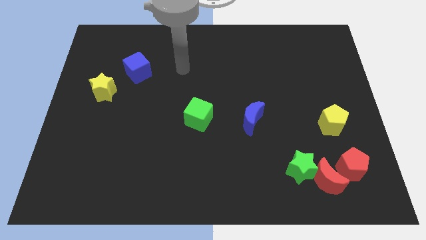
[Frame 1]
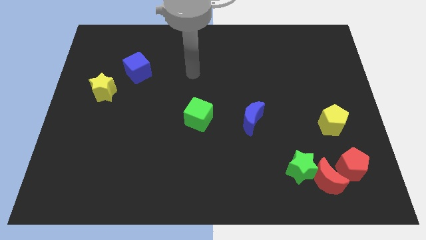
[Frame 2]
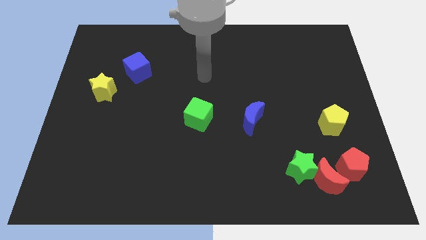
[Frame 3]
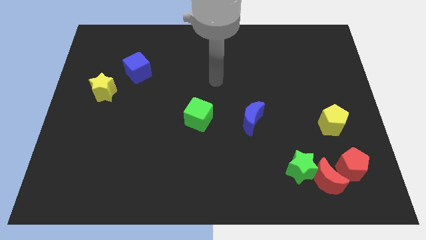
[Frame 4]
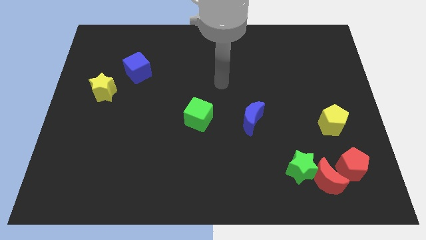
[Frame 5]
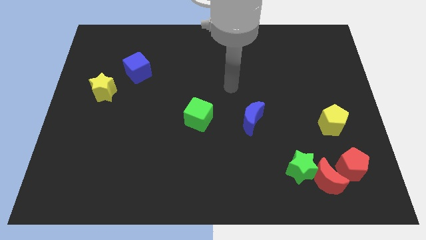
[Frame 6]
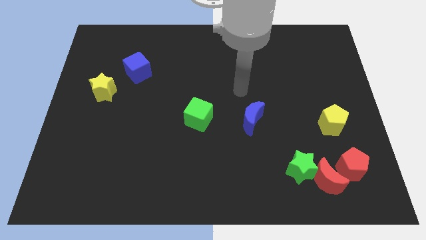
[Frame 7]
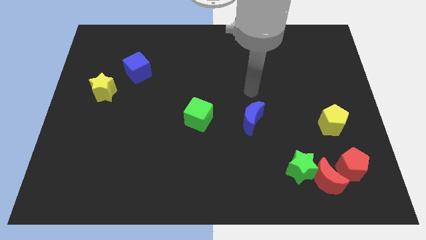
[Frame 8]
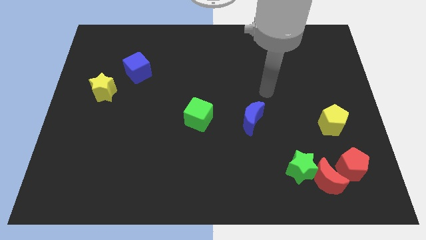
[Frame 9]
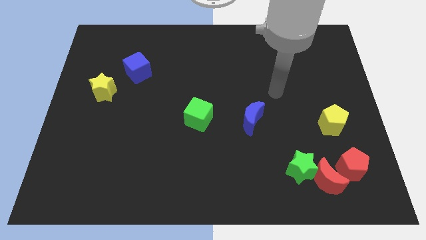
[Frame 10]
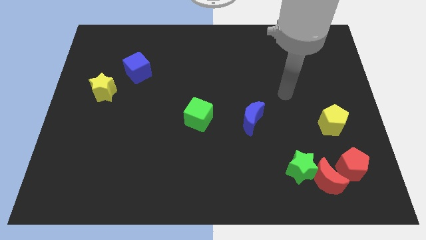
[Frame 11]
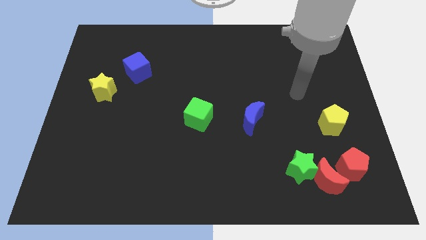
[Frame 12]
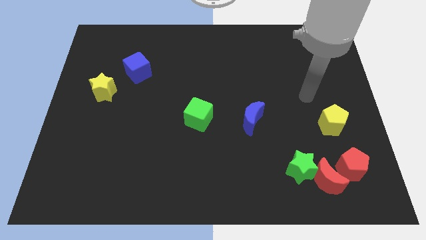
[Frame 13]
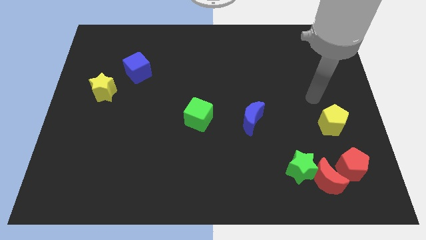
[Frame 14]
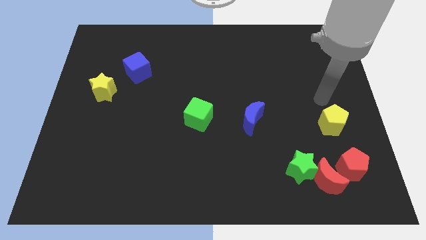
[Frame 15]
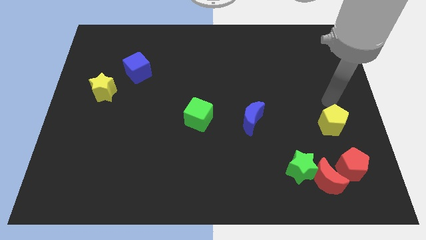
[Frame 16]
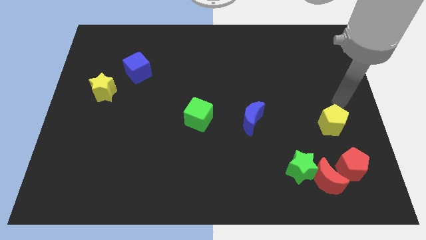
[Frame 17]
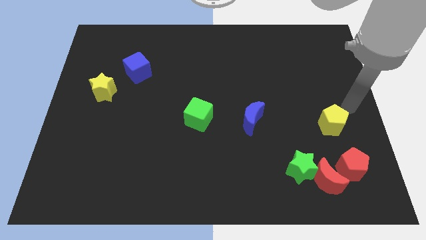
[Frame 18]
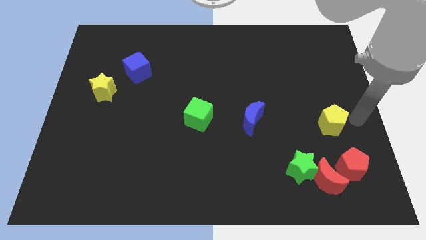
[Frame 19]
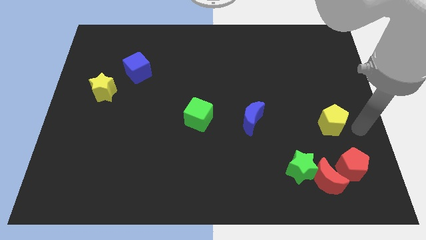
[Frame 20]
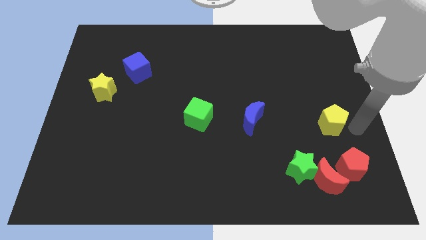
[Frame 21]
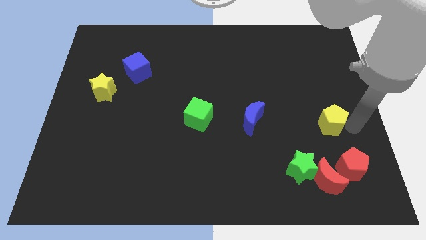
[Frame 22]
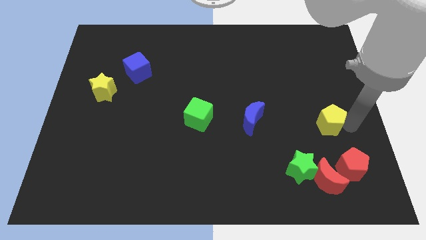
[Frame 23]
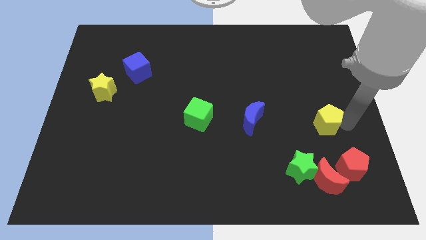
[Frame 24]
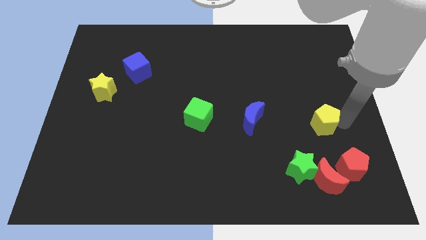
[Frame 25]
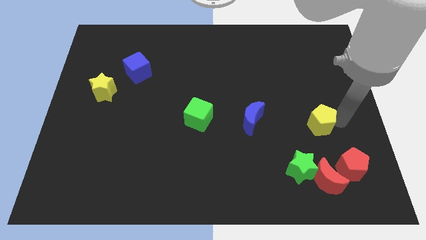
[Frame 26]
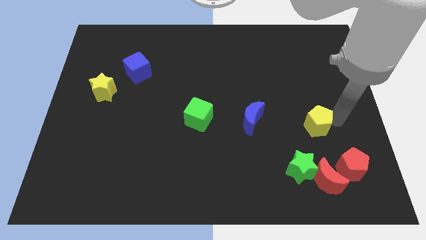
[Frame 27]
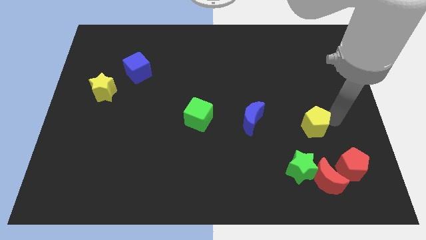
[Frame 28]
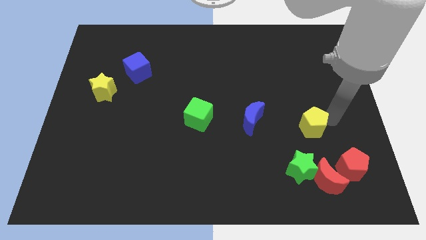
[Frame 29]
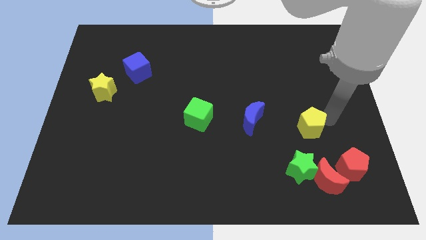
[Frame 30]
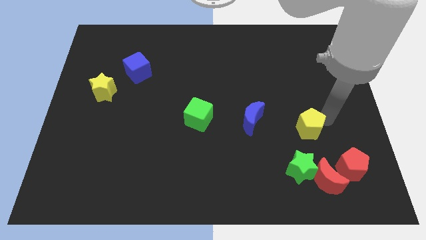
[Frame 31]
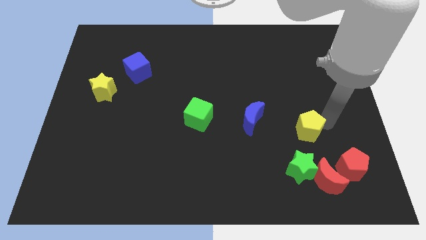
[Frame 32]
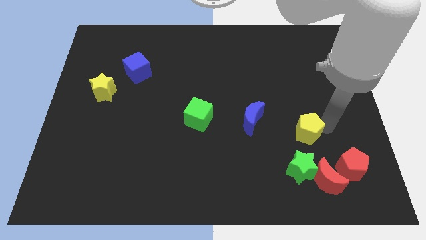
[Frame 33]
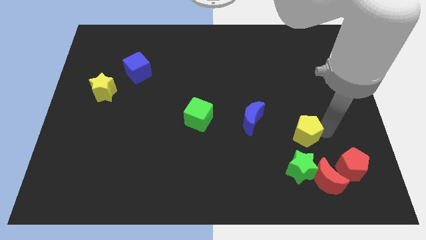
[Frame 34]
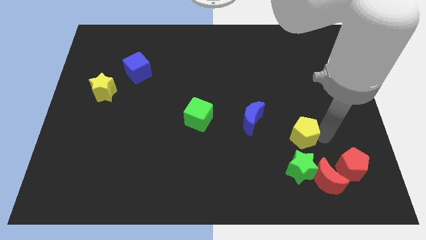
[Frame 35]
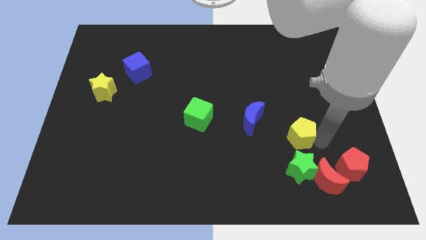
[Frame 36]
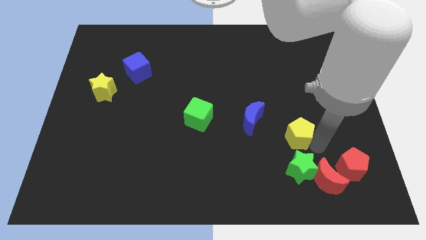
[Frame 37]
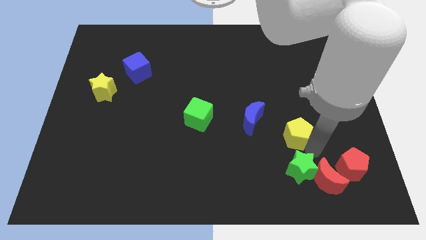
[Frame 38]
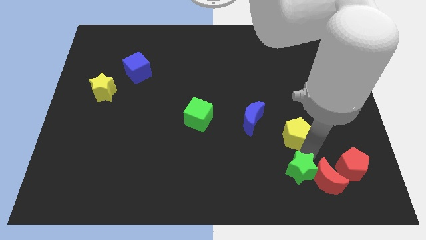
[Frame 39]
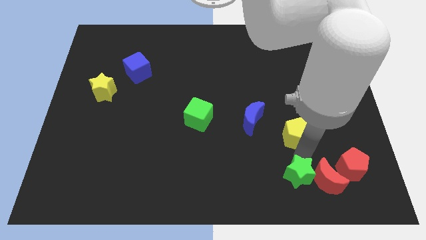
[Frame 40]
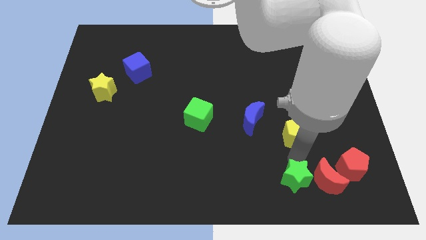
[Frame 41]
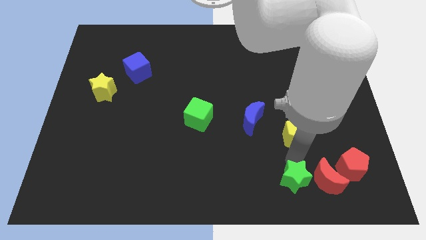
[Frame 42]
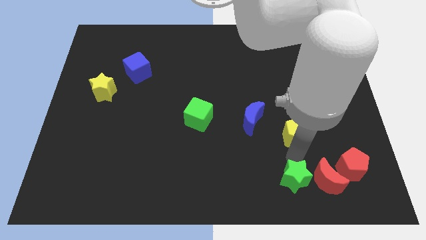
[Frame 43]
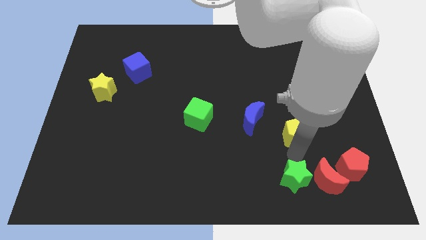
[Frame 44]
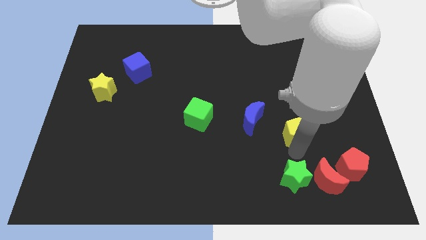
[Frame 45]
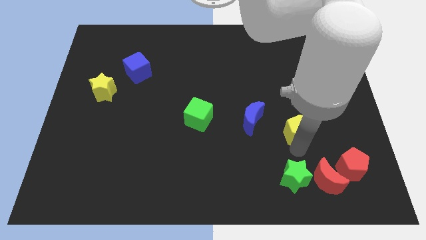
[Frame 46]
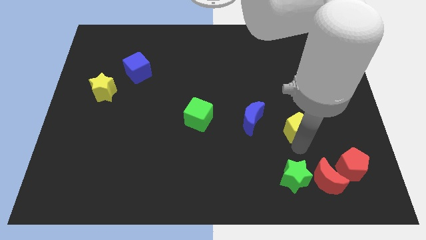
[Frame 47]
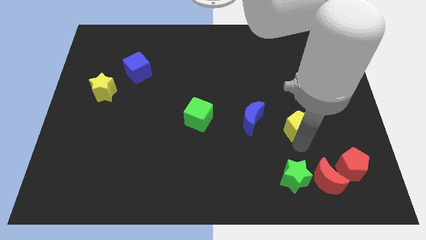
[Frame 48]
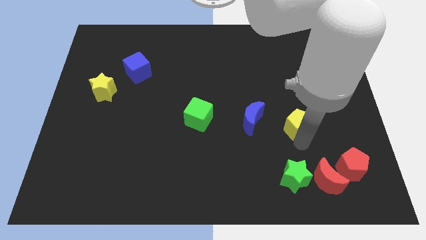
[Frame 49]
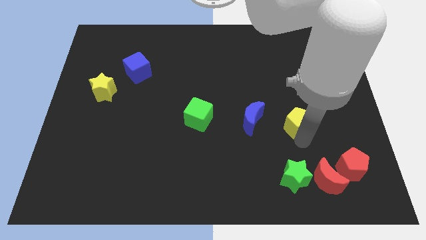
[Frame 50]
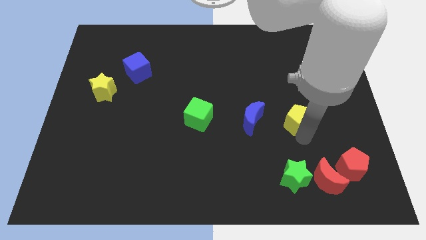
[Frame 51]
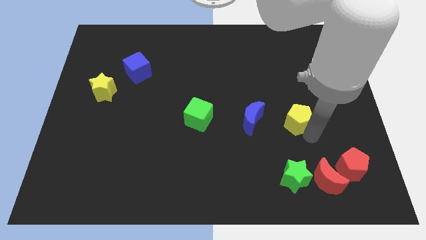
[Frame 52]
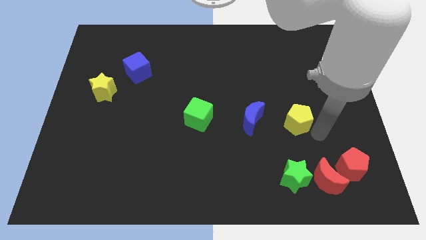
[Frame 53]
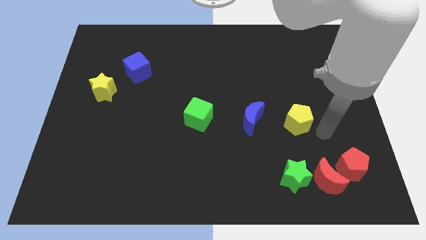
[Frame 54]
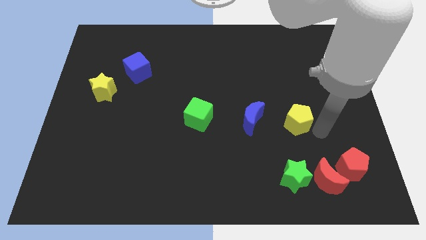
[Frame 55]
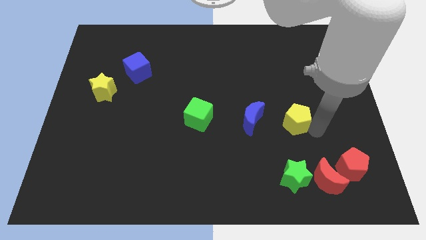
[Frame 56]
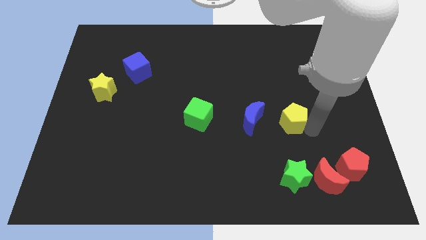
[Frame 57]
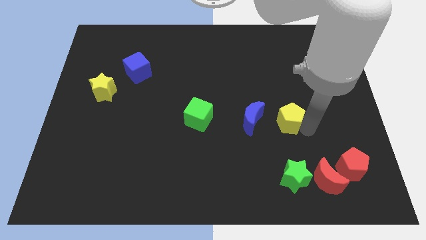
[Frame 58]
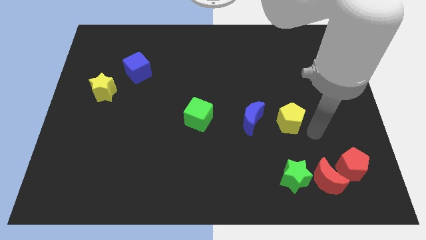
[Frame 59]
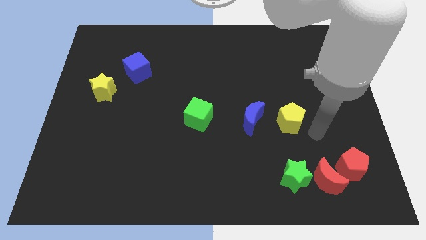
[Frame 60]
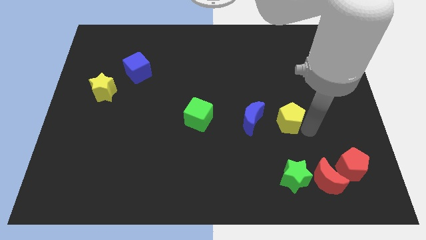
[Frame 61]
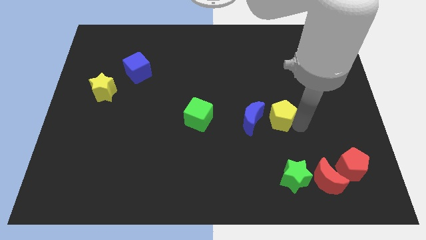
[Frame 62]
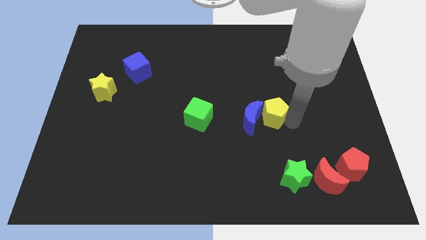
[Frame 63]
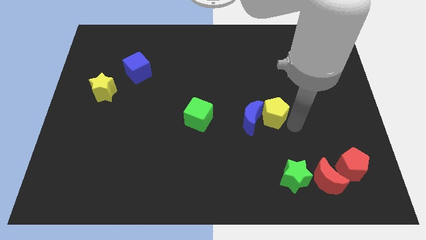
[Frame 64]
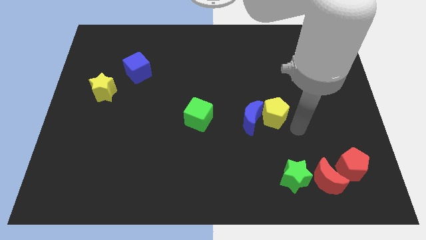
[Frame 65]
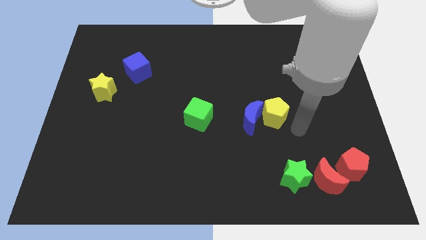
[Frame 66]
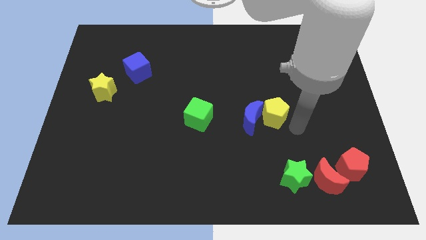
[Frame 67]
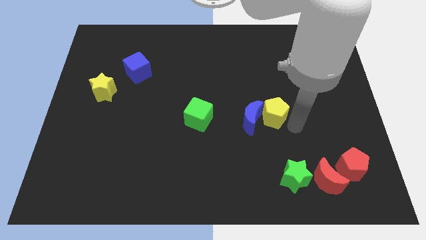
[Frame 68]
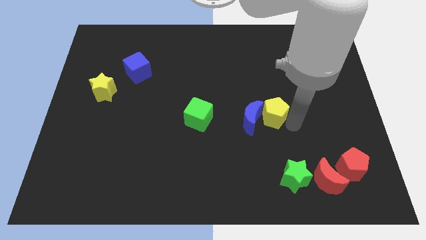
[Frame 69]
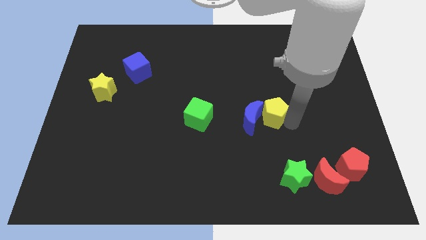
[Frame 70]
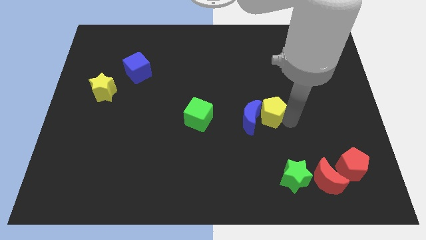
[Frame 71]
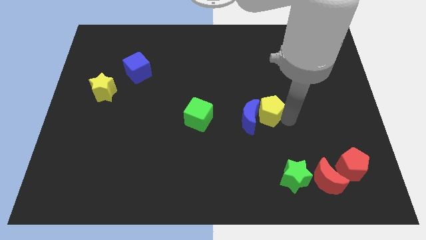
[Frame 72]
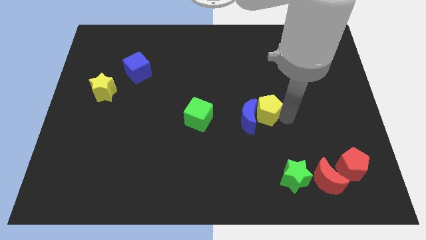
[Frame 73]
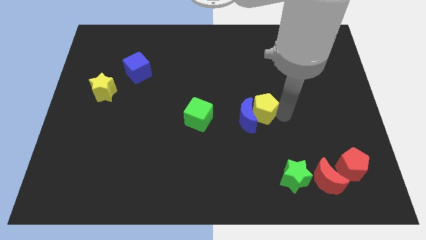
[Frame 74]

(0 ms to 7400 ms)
slide the yellow pentagon to the center
